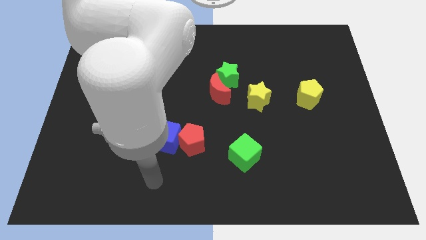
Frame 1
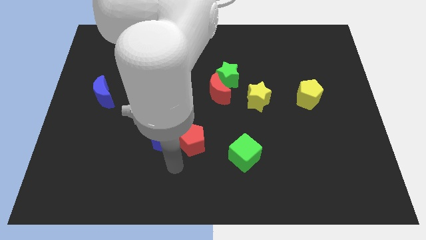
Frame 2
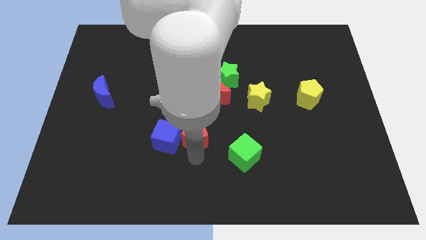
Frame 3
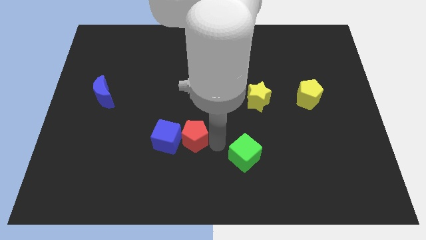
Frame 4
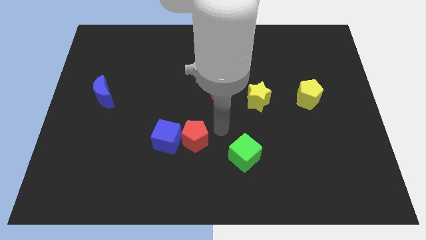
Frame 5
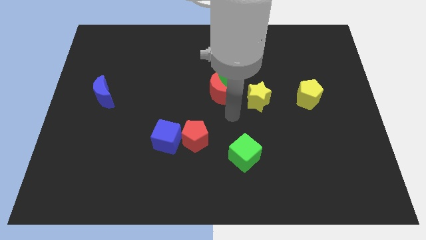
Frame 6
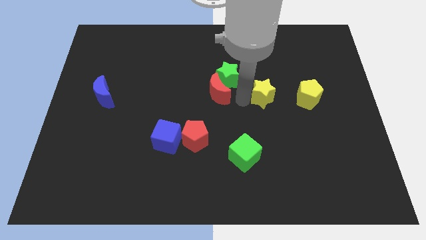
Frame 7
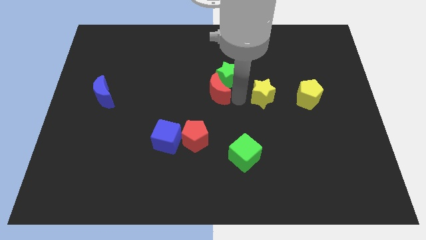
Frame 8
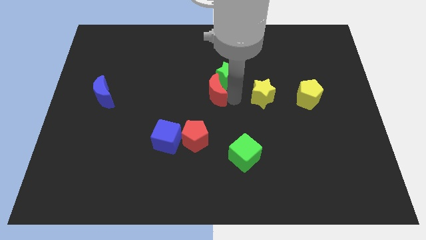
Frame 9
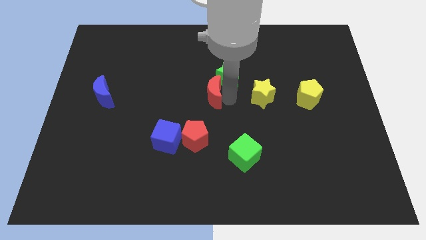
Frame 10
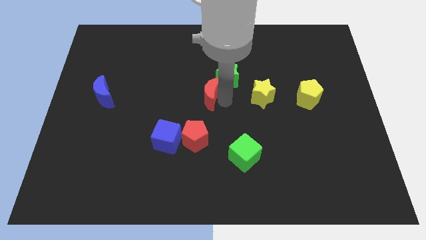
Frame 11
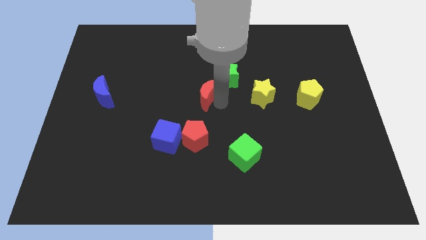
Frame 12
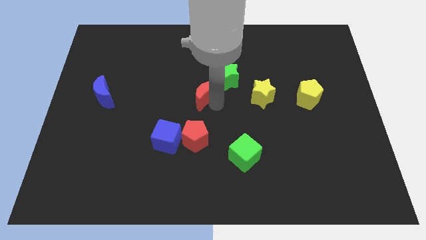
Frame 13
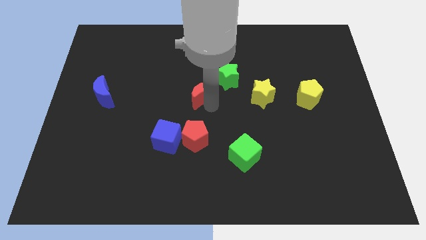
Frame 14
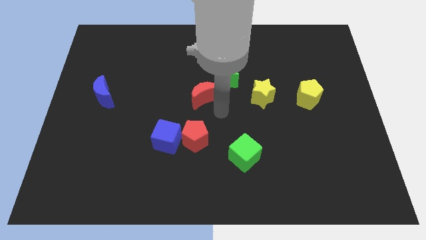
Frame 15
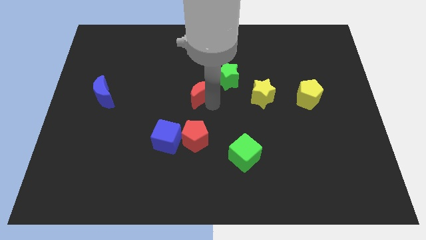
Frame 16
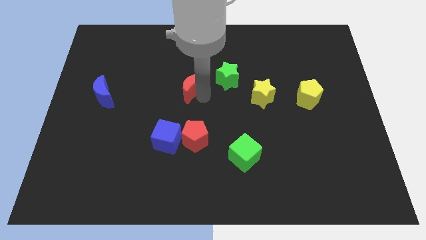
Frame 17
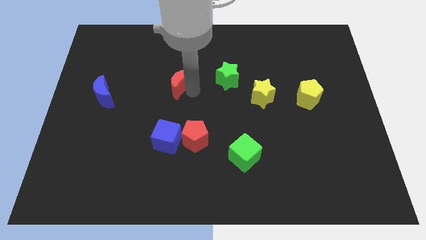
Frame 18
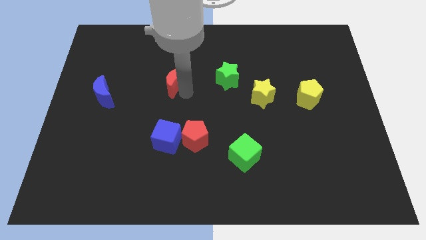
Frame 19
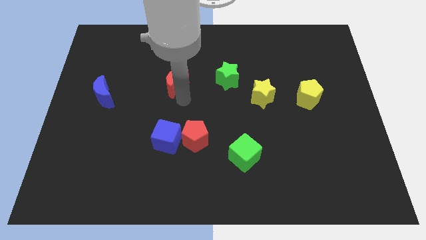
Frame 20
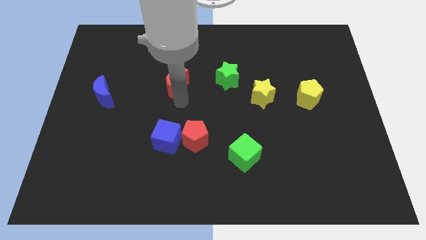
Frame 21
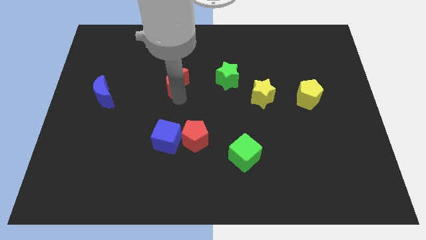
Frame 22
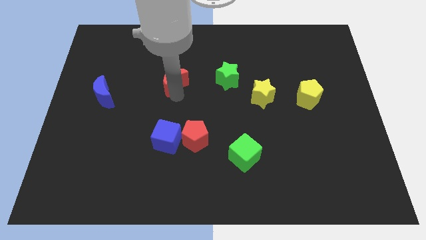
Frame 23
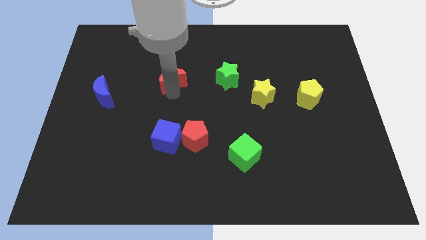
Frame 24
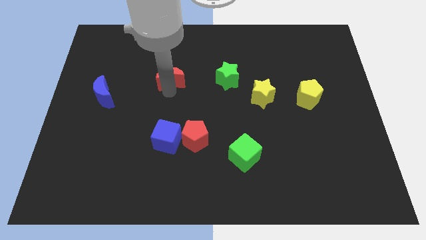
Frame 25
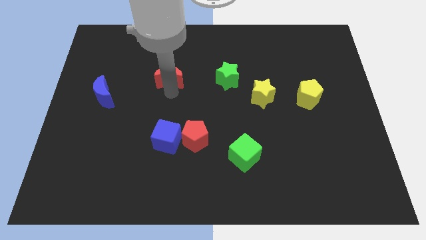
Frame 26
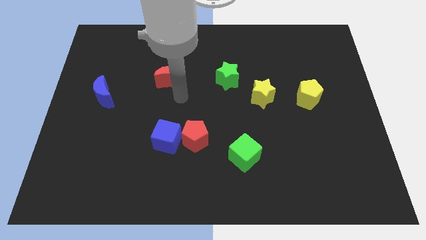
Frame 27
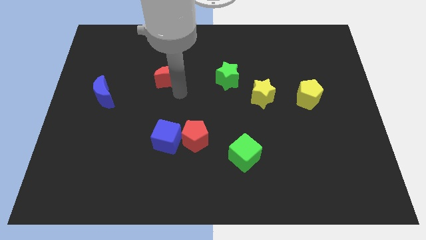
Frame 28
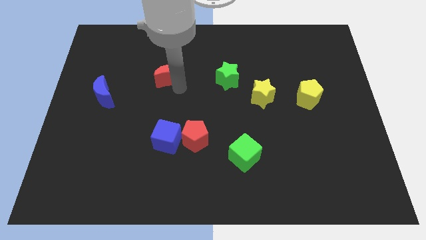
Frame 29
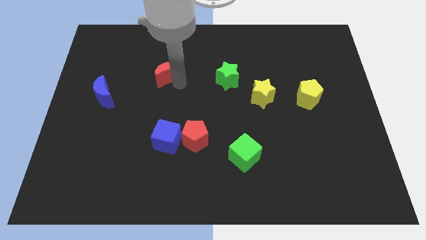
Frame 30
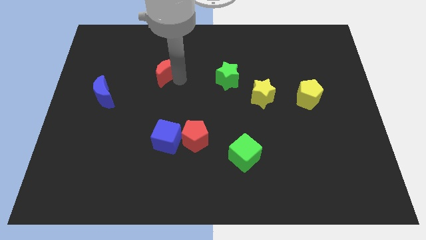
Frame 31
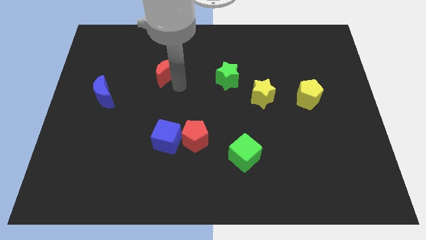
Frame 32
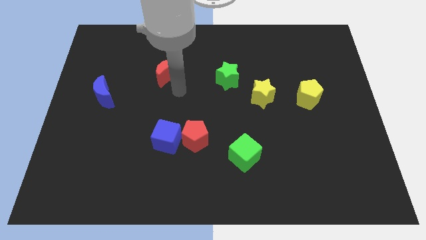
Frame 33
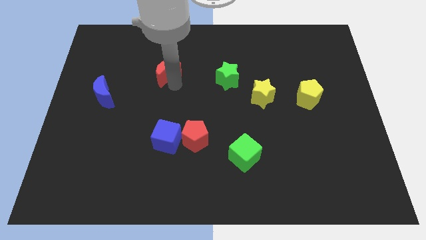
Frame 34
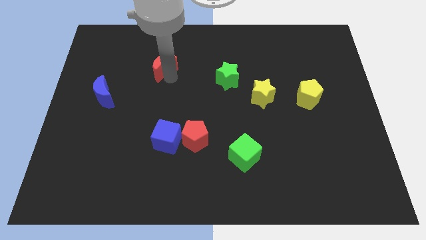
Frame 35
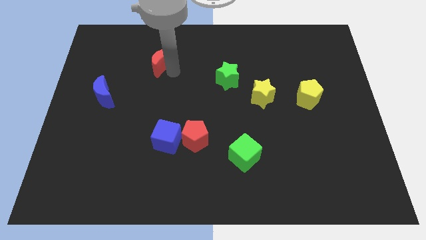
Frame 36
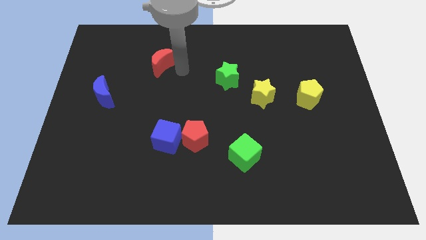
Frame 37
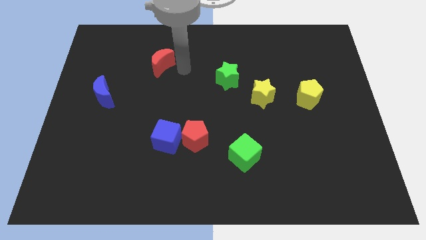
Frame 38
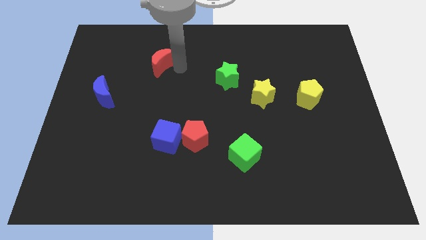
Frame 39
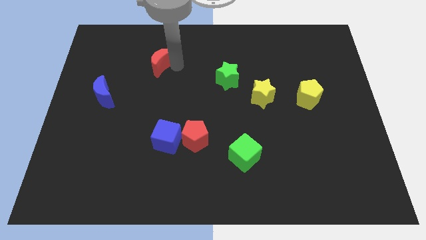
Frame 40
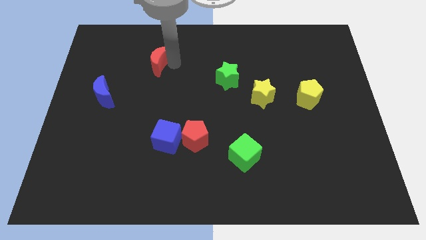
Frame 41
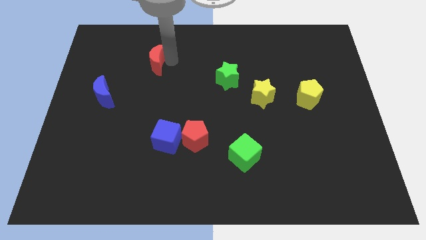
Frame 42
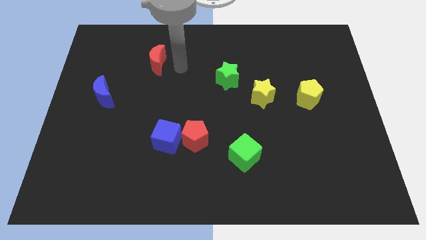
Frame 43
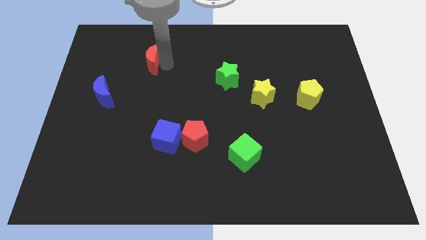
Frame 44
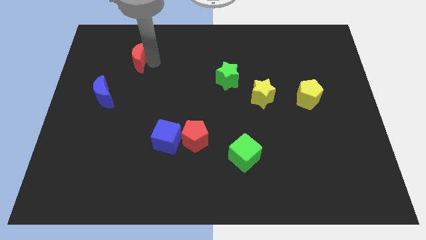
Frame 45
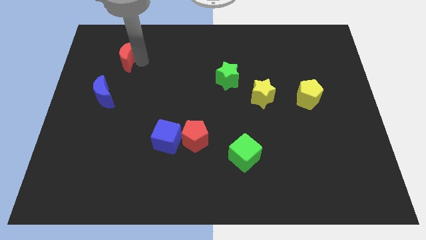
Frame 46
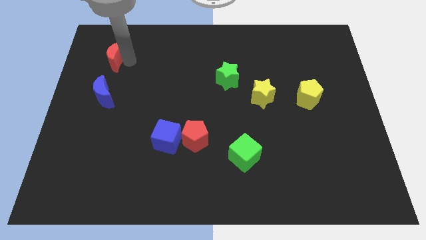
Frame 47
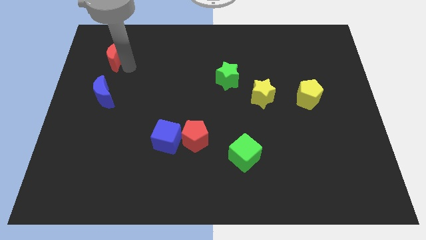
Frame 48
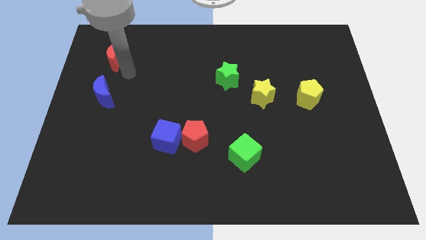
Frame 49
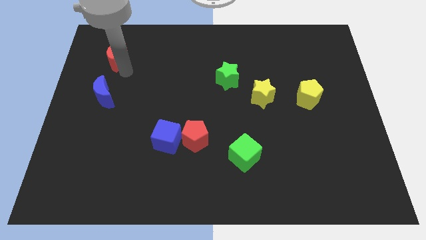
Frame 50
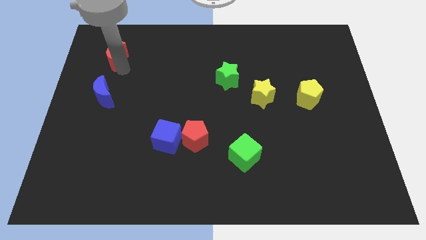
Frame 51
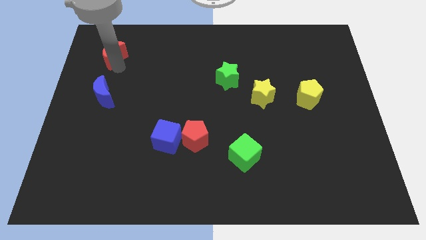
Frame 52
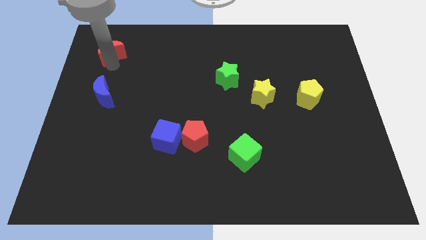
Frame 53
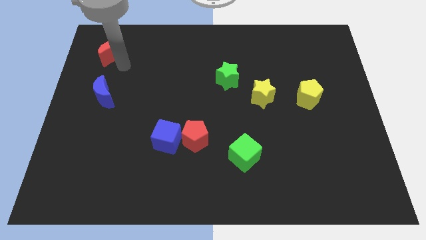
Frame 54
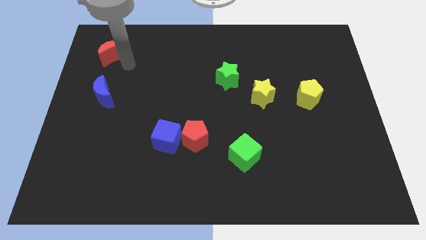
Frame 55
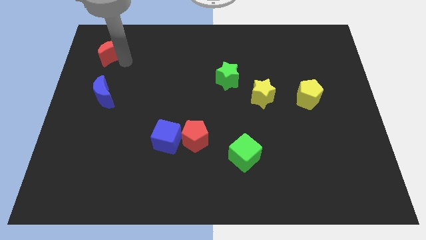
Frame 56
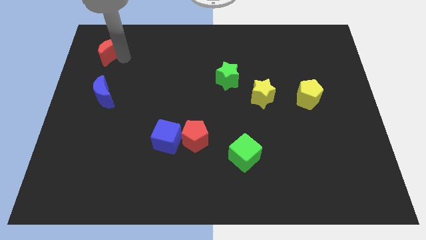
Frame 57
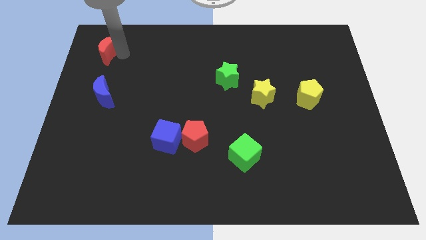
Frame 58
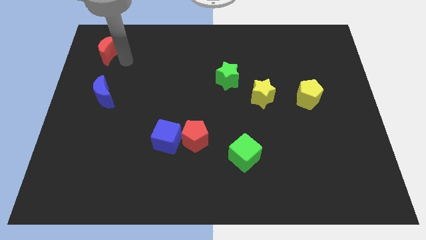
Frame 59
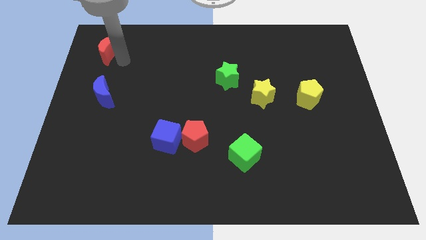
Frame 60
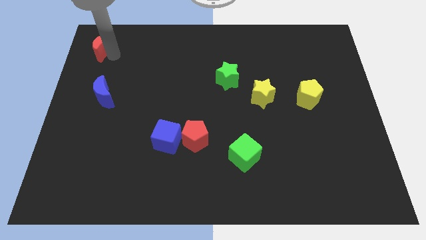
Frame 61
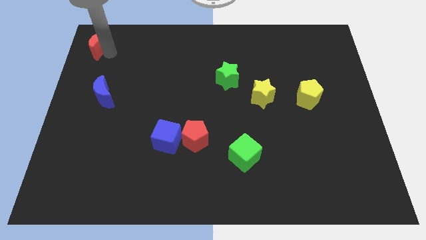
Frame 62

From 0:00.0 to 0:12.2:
put the red moon to the top left

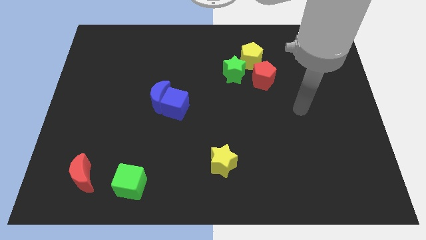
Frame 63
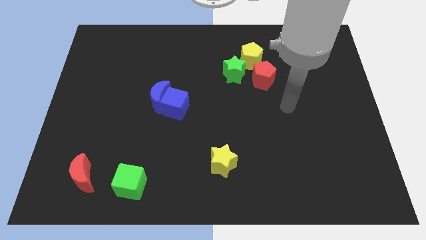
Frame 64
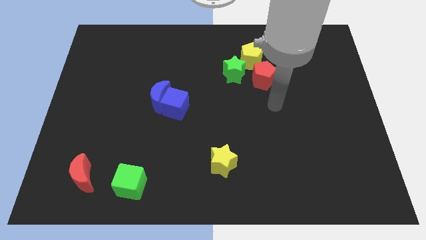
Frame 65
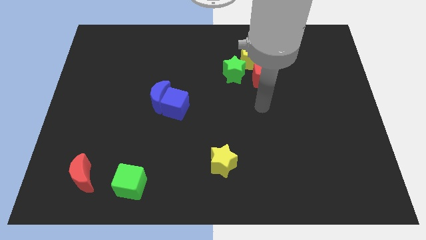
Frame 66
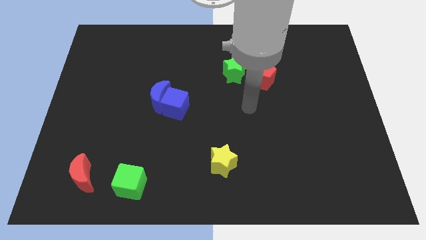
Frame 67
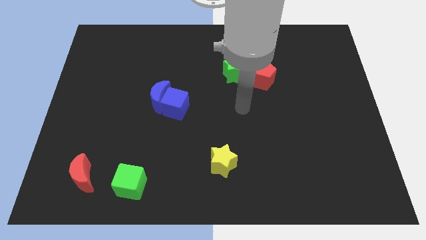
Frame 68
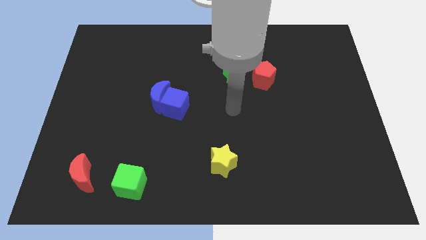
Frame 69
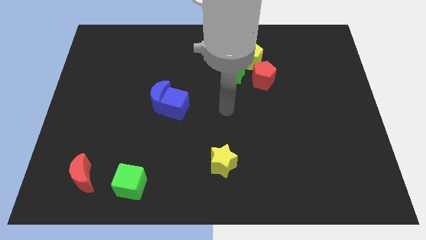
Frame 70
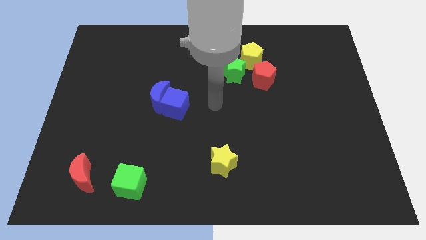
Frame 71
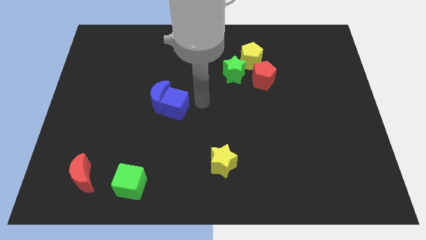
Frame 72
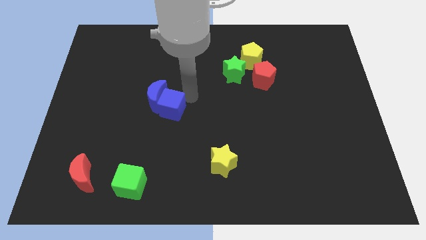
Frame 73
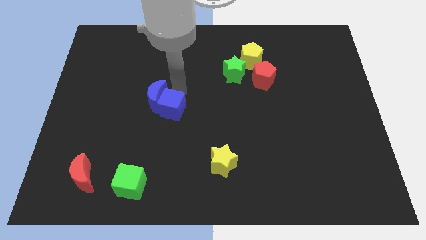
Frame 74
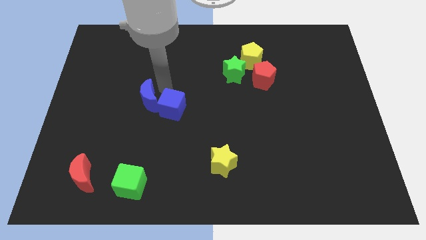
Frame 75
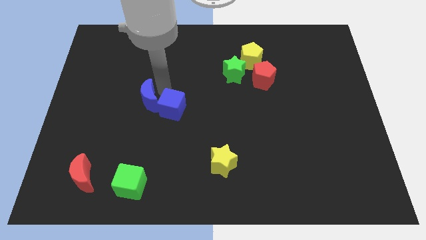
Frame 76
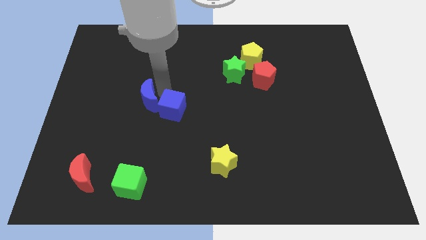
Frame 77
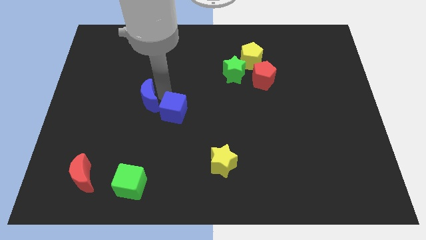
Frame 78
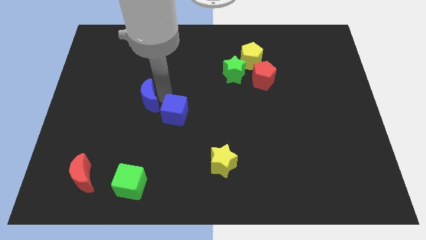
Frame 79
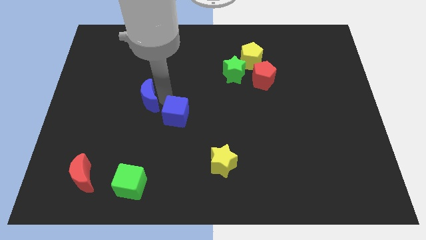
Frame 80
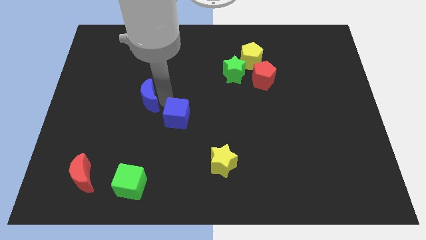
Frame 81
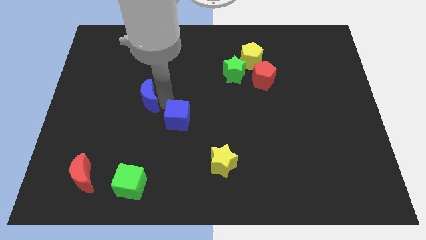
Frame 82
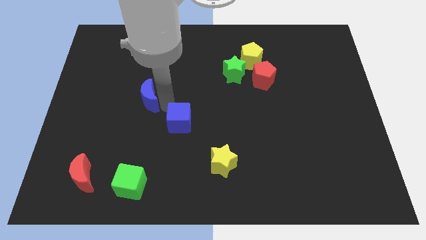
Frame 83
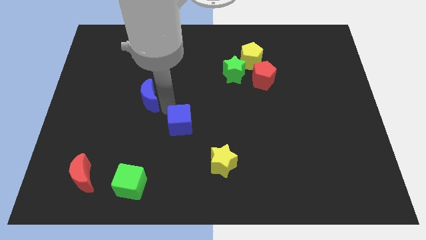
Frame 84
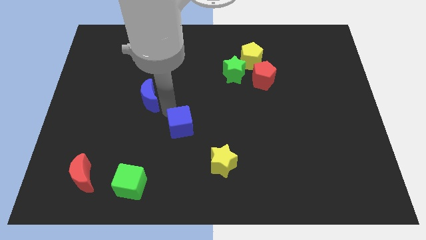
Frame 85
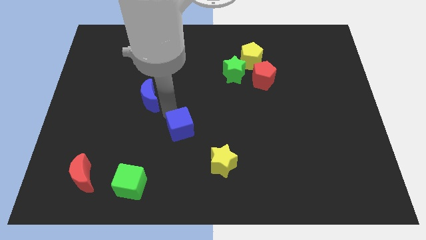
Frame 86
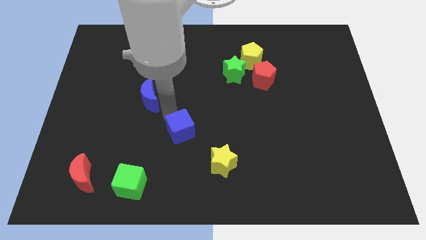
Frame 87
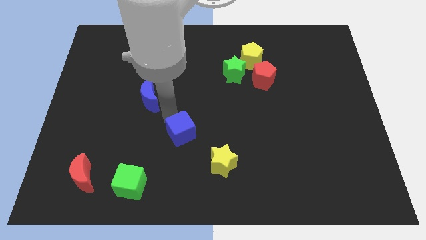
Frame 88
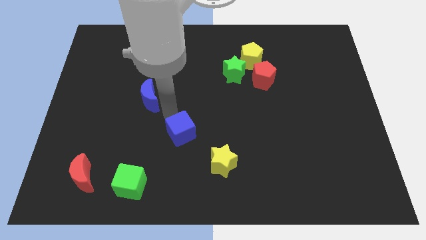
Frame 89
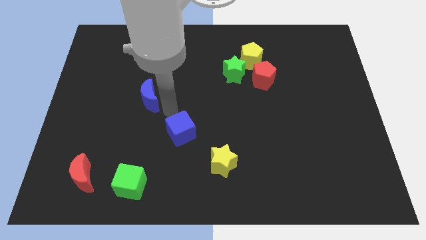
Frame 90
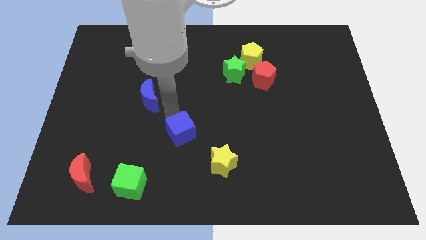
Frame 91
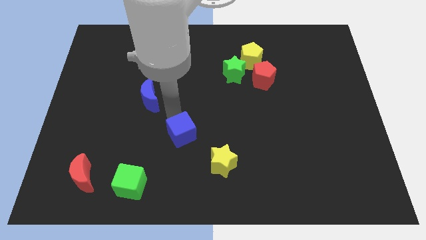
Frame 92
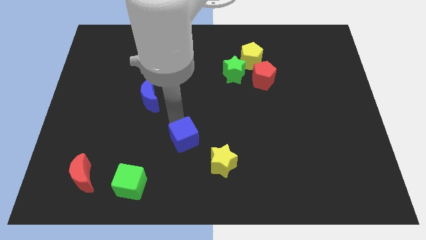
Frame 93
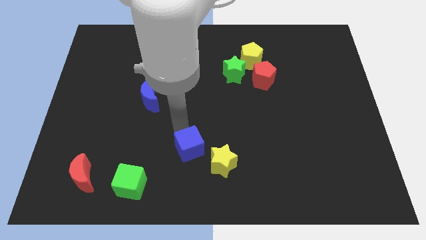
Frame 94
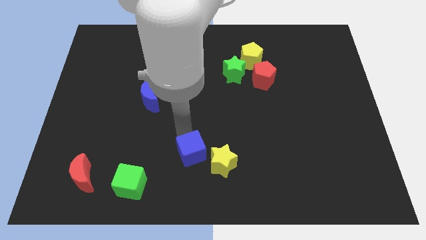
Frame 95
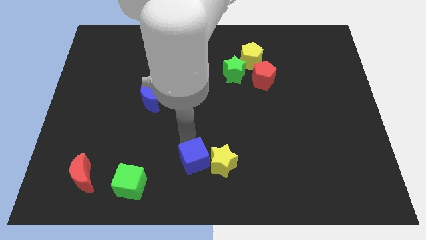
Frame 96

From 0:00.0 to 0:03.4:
put the blue cube to the bottom side
